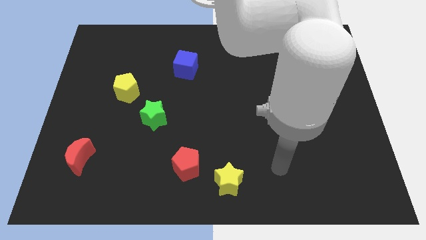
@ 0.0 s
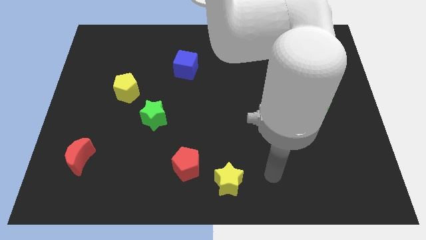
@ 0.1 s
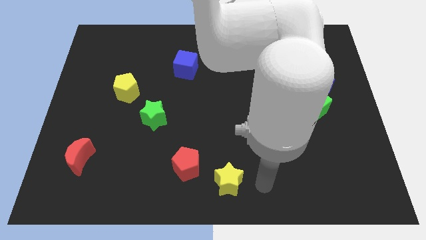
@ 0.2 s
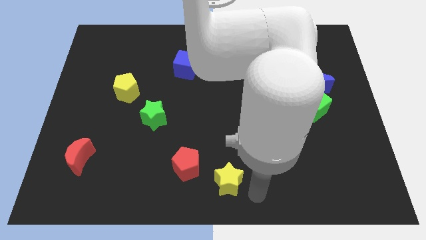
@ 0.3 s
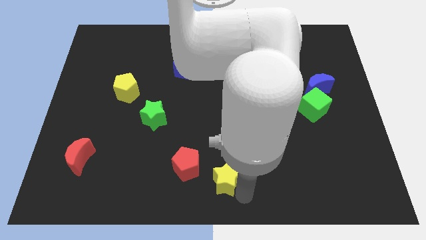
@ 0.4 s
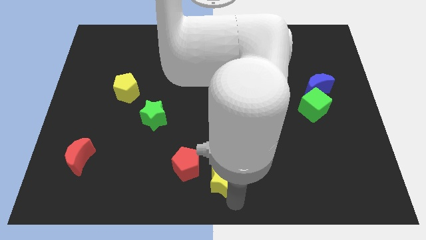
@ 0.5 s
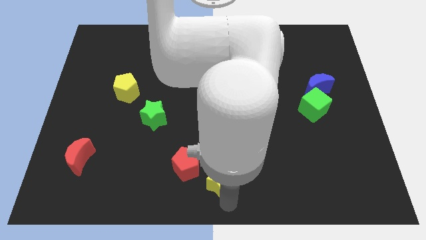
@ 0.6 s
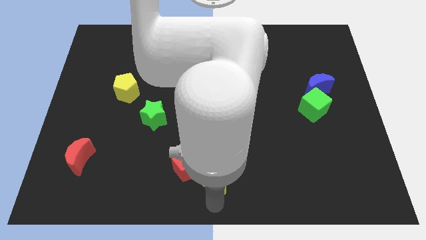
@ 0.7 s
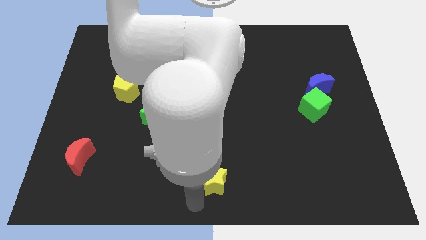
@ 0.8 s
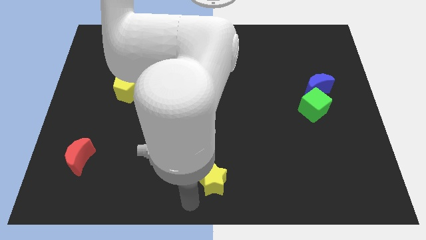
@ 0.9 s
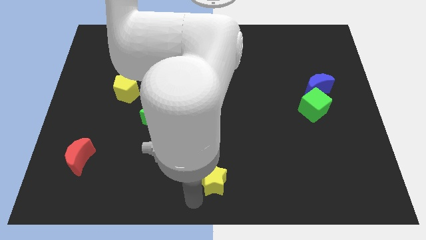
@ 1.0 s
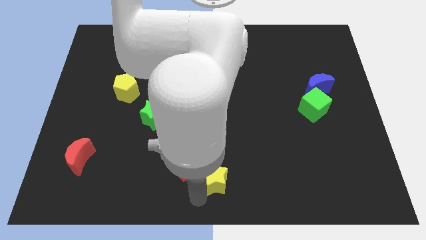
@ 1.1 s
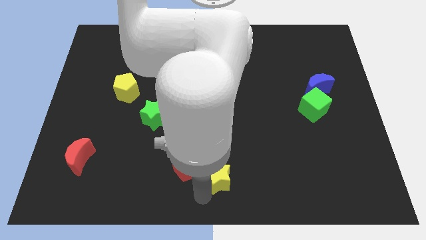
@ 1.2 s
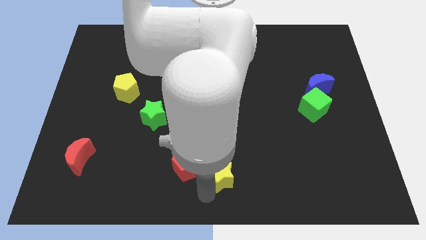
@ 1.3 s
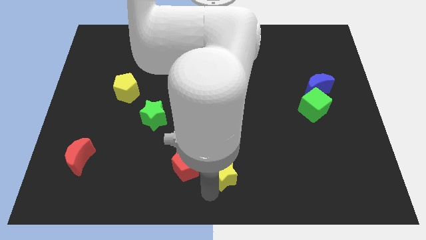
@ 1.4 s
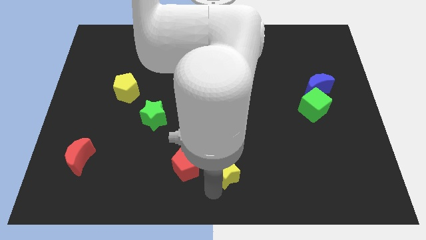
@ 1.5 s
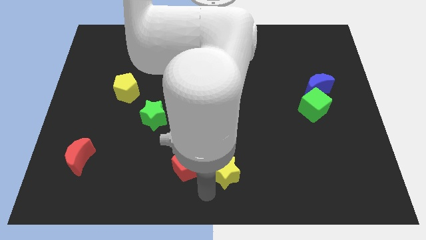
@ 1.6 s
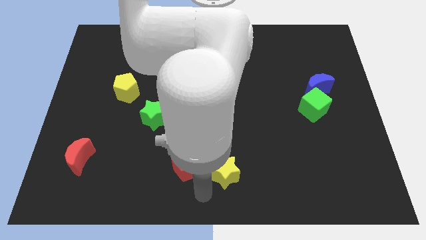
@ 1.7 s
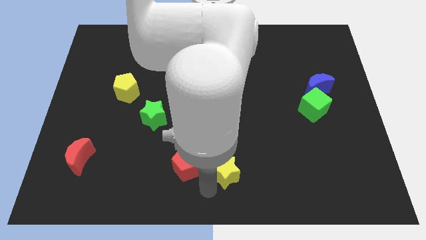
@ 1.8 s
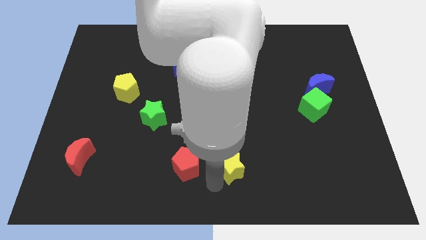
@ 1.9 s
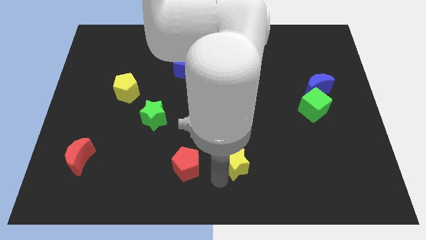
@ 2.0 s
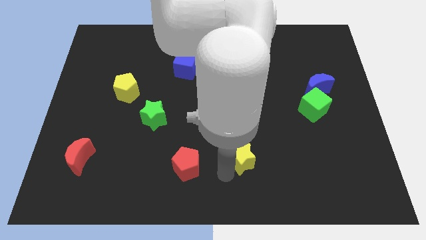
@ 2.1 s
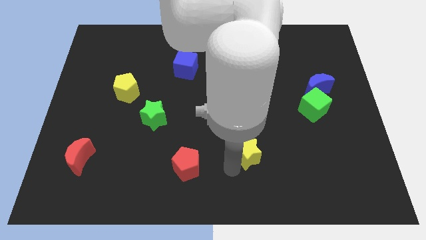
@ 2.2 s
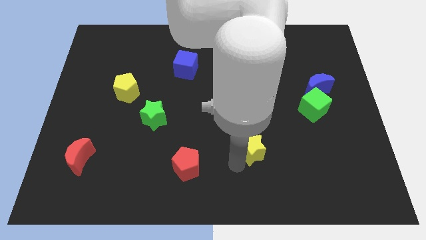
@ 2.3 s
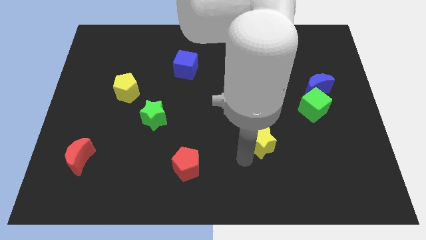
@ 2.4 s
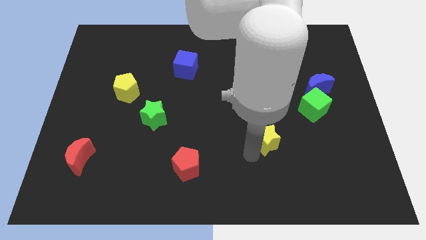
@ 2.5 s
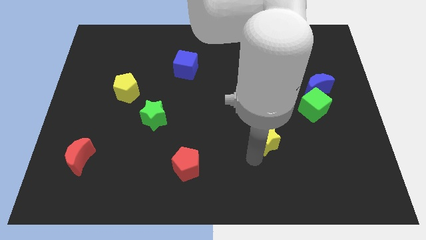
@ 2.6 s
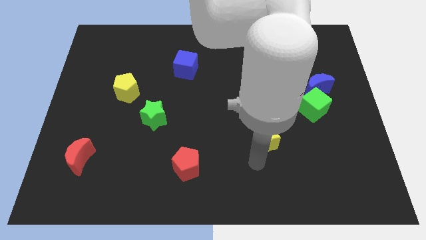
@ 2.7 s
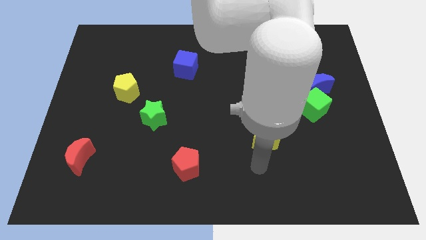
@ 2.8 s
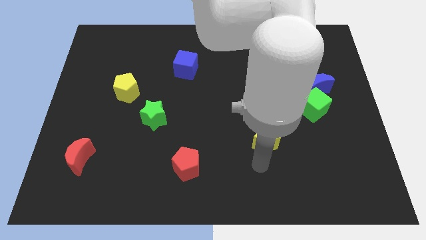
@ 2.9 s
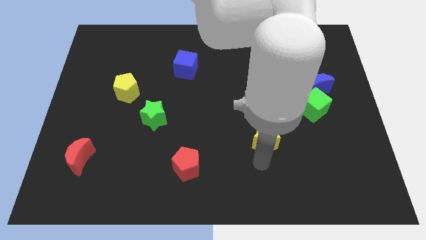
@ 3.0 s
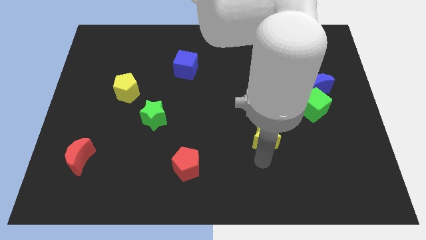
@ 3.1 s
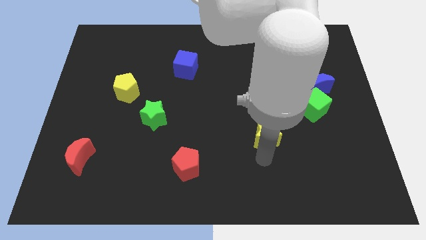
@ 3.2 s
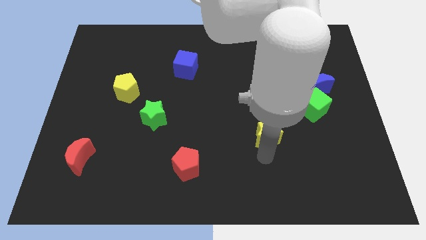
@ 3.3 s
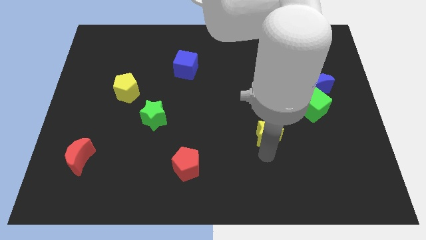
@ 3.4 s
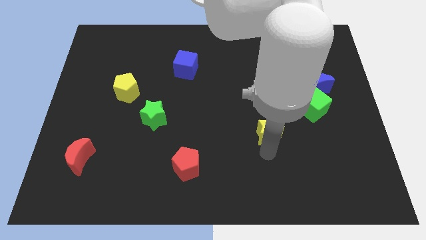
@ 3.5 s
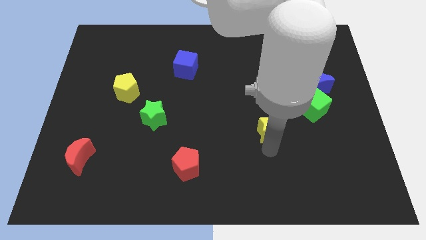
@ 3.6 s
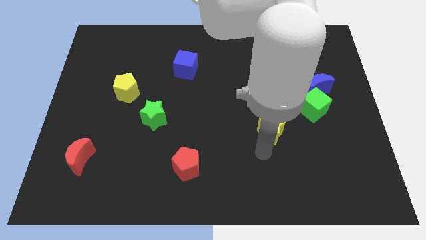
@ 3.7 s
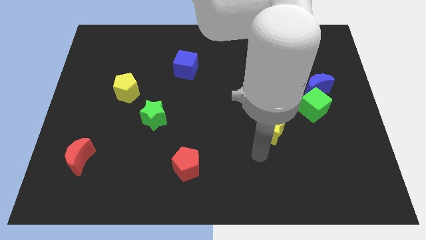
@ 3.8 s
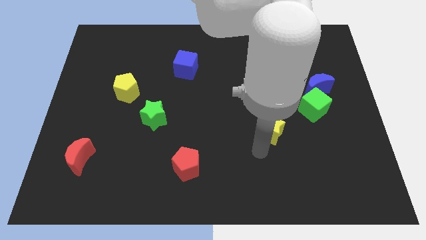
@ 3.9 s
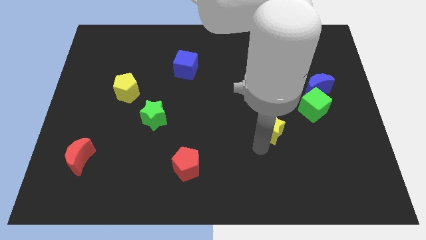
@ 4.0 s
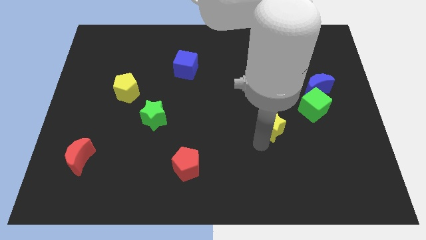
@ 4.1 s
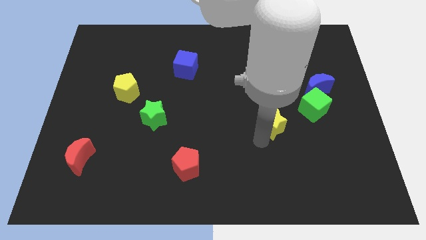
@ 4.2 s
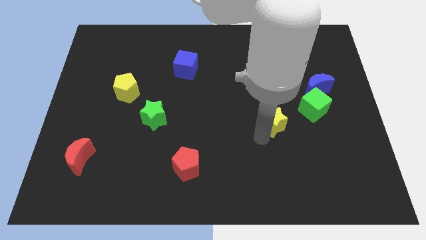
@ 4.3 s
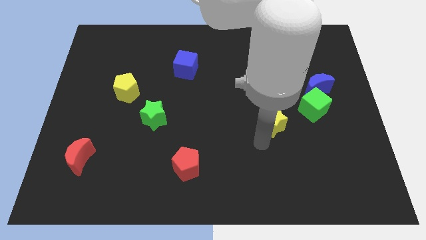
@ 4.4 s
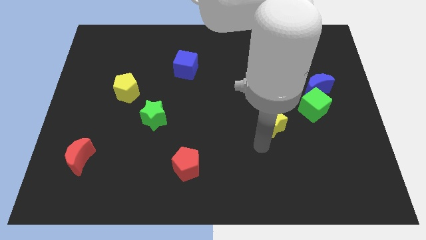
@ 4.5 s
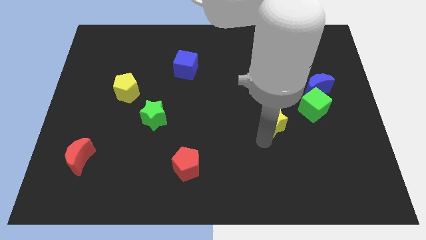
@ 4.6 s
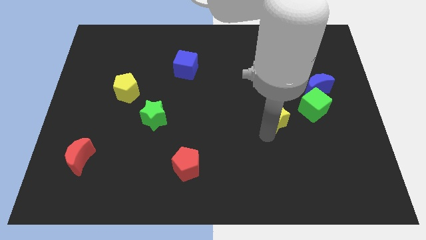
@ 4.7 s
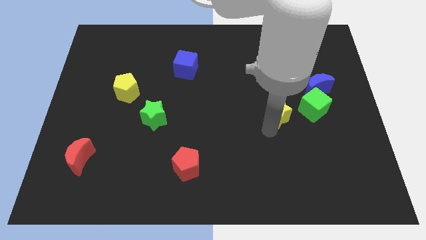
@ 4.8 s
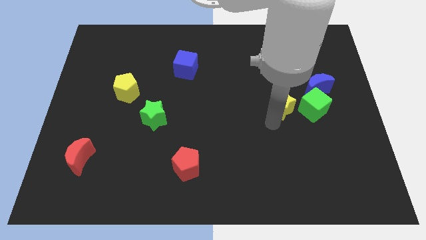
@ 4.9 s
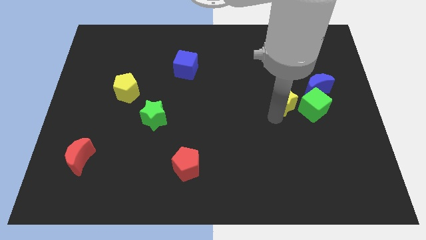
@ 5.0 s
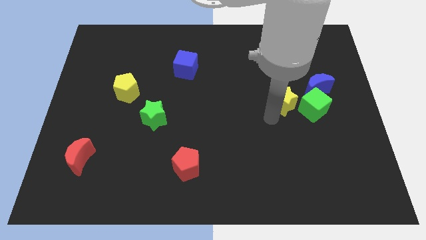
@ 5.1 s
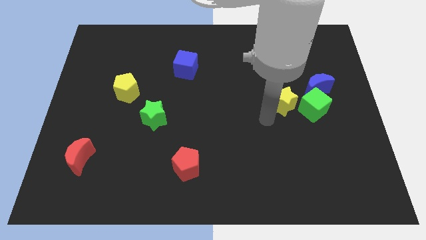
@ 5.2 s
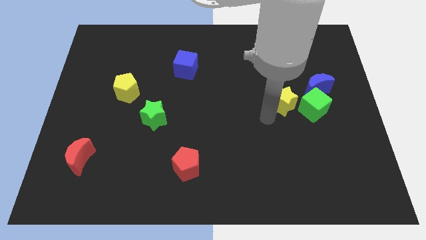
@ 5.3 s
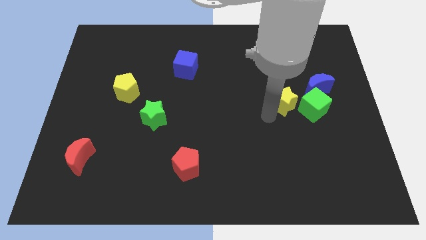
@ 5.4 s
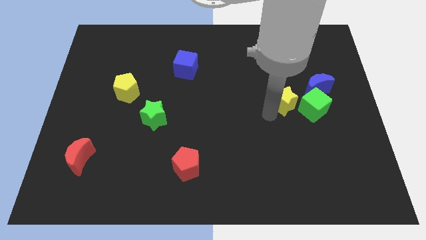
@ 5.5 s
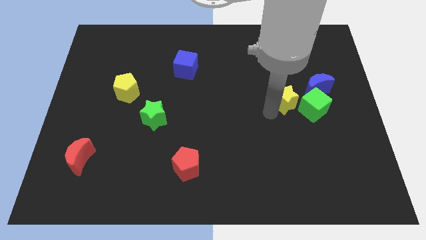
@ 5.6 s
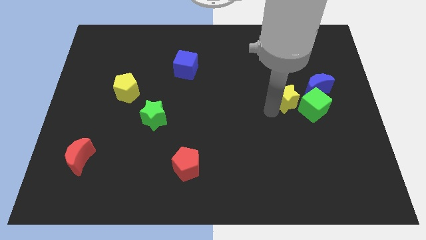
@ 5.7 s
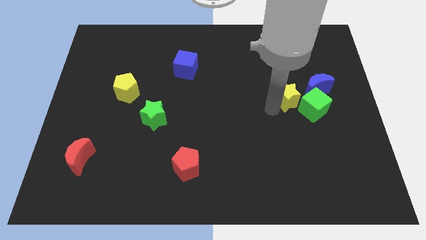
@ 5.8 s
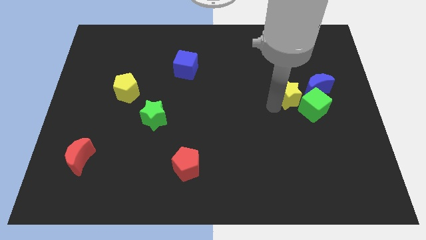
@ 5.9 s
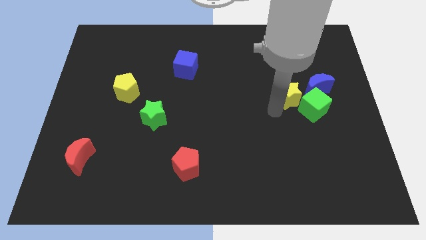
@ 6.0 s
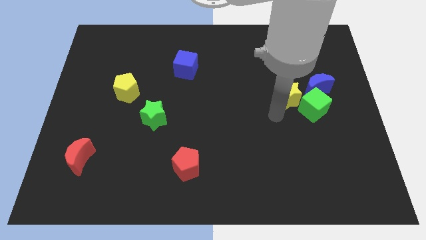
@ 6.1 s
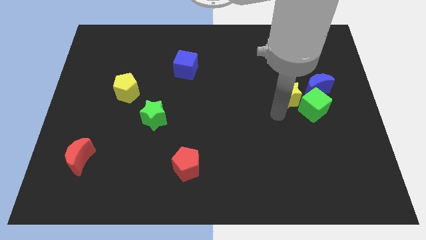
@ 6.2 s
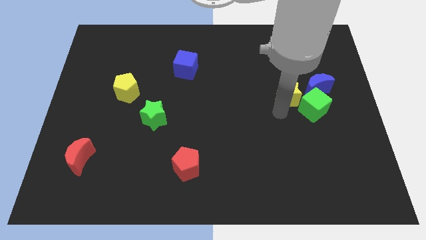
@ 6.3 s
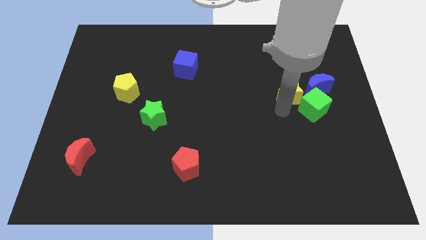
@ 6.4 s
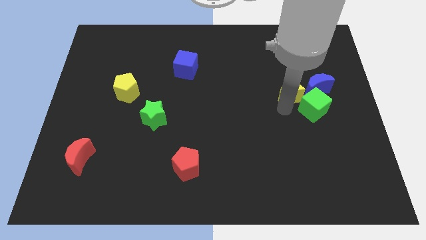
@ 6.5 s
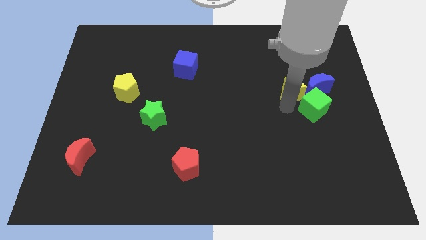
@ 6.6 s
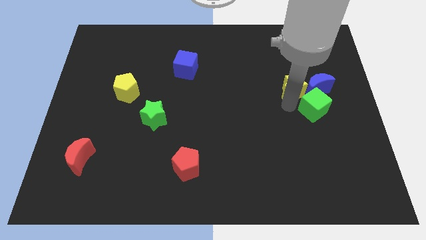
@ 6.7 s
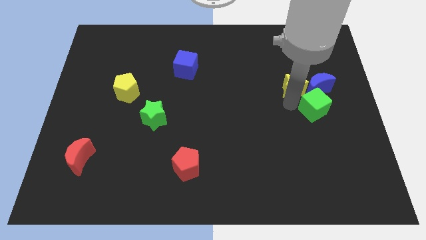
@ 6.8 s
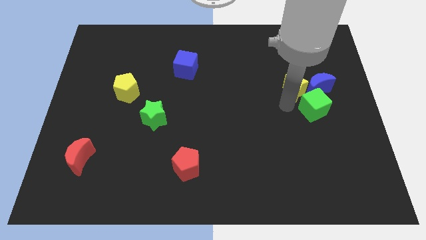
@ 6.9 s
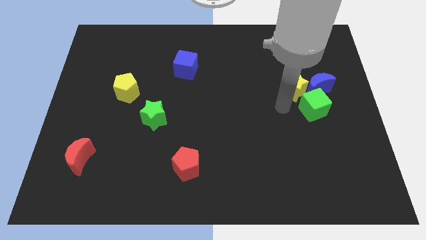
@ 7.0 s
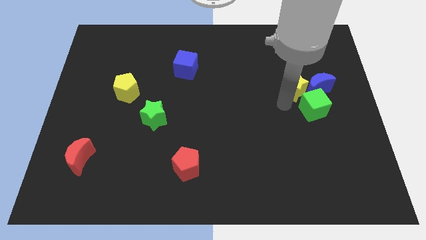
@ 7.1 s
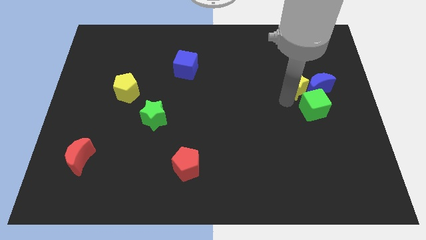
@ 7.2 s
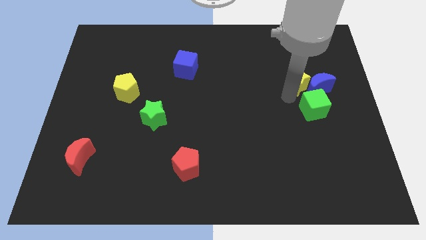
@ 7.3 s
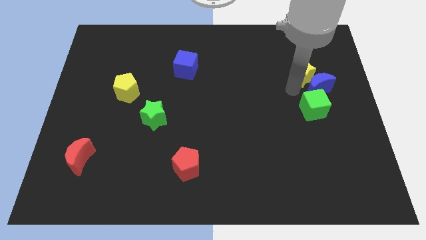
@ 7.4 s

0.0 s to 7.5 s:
move the yellow star to the top of the blue moon
